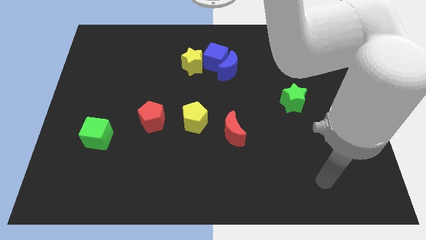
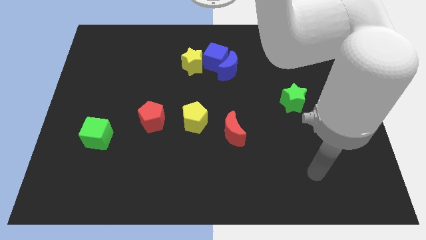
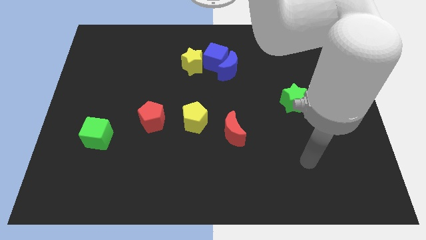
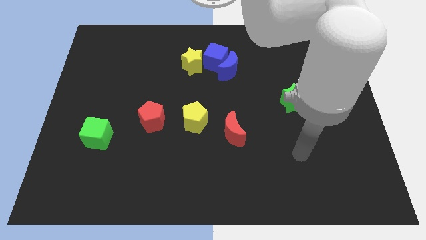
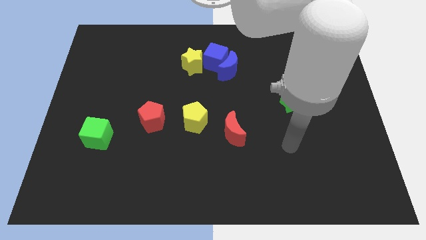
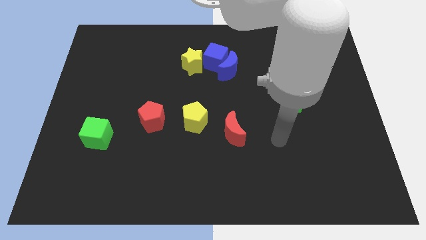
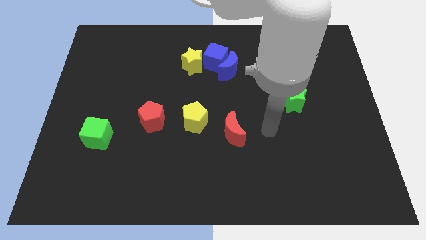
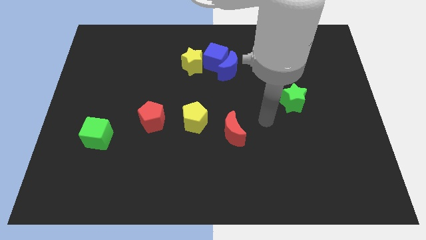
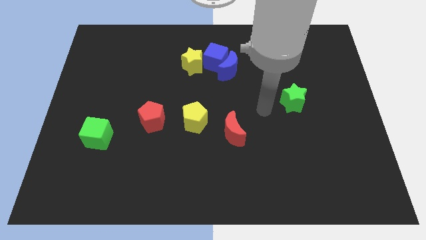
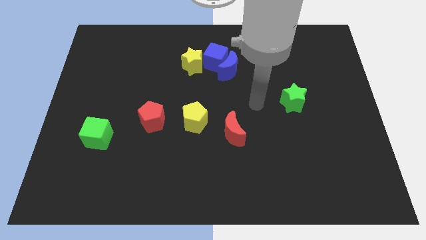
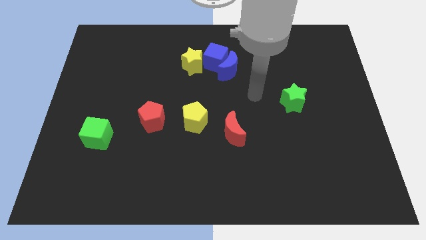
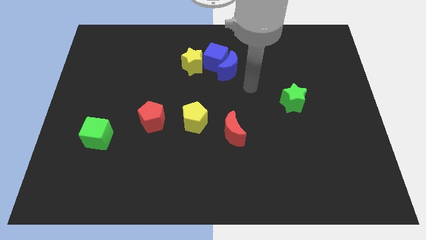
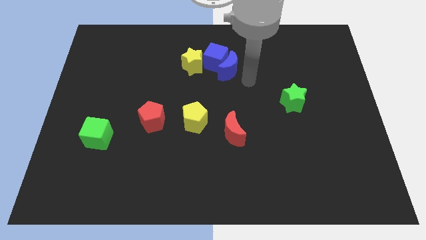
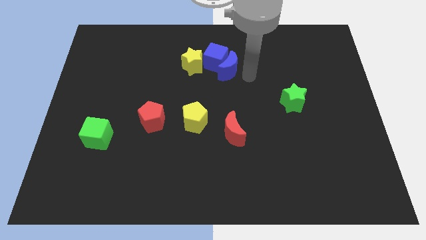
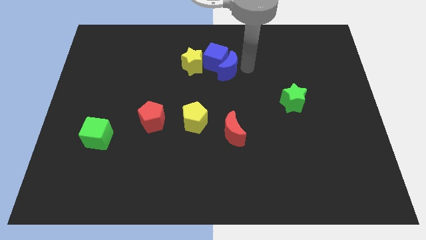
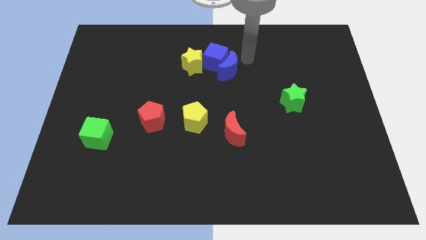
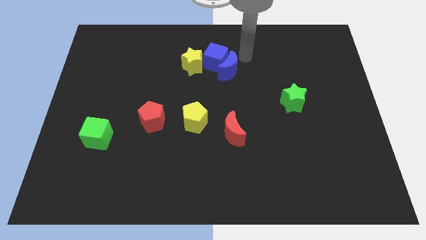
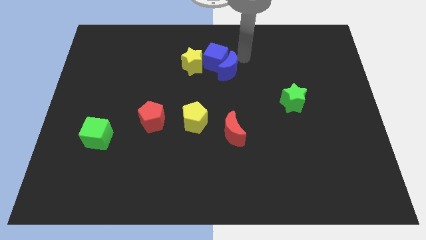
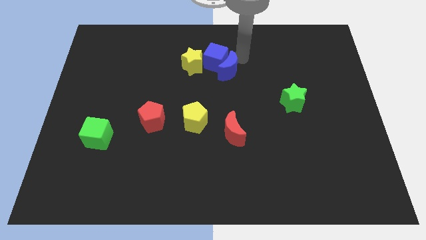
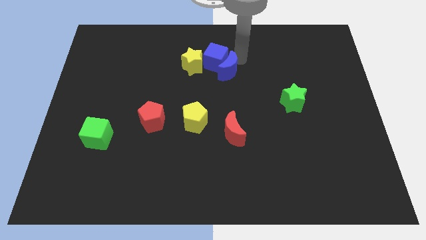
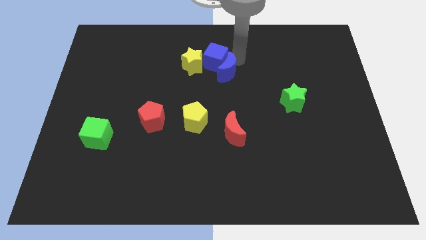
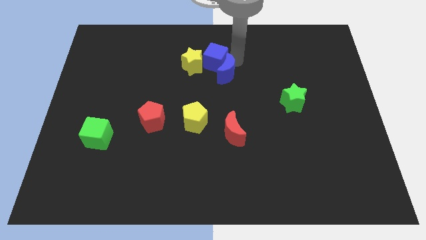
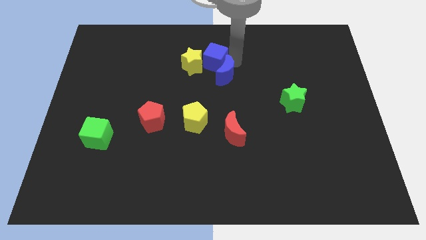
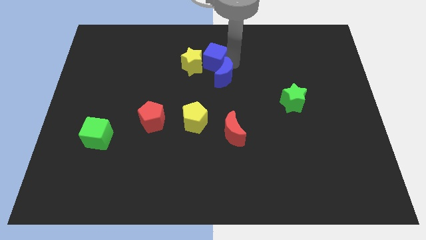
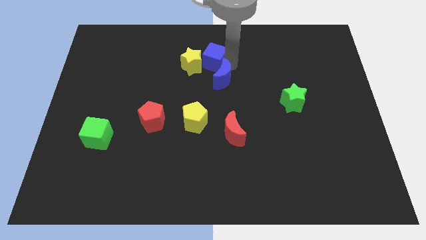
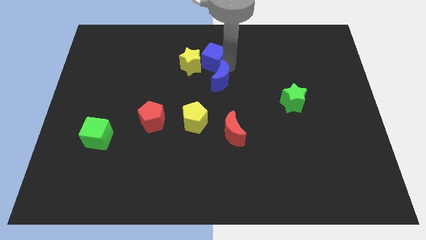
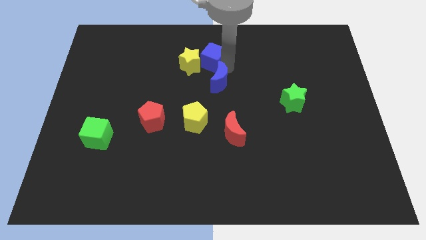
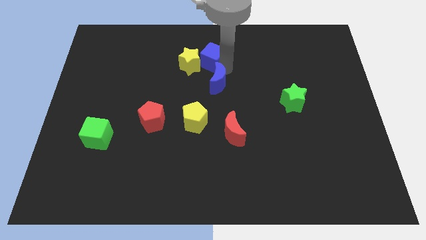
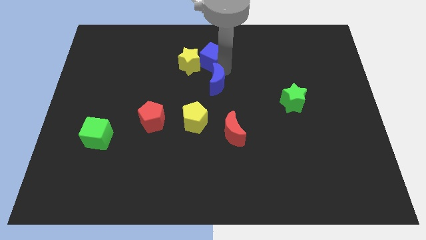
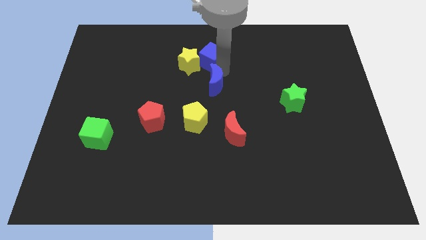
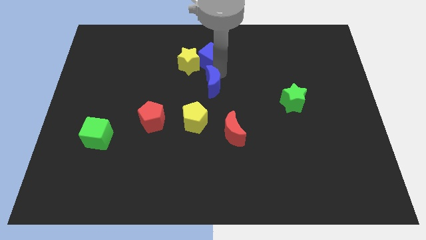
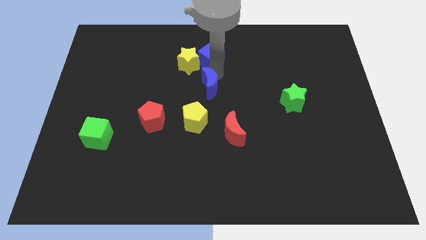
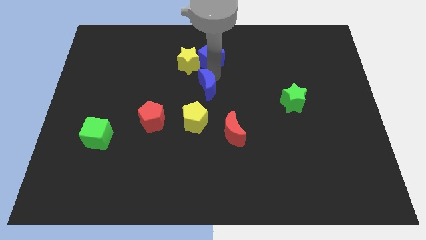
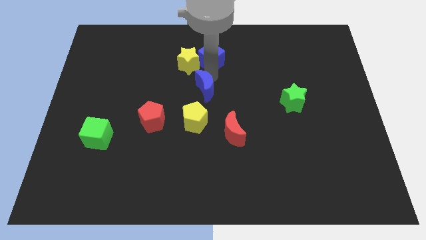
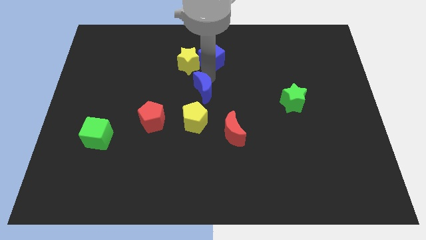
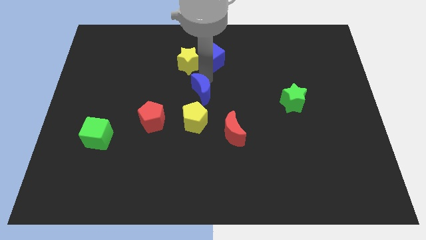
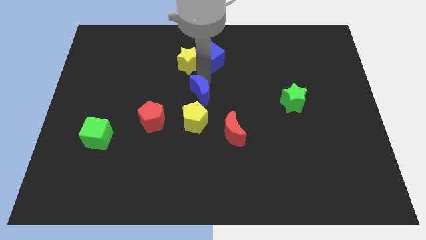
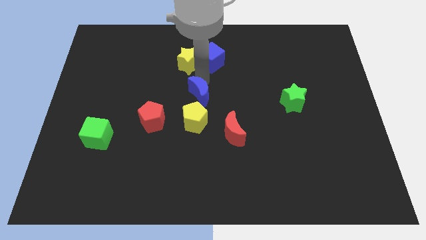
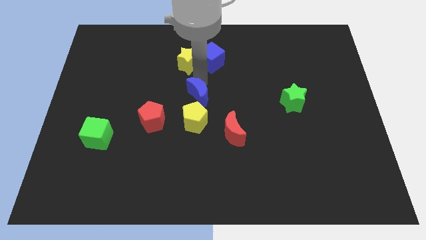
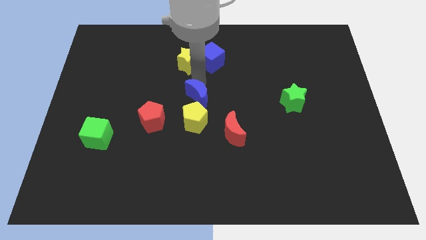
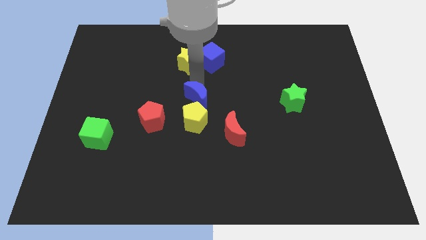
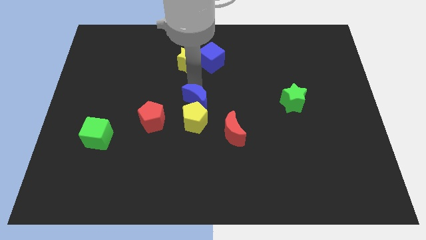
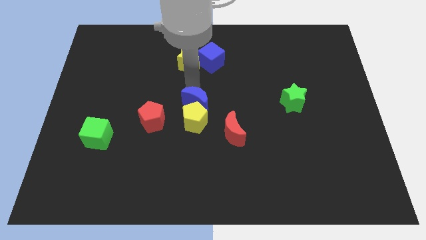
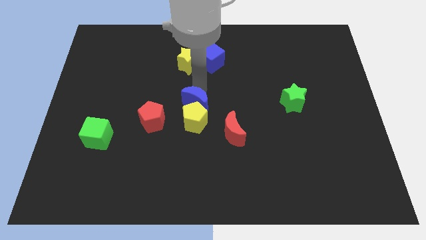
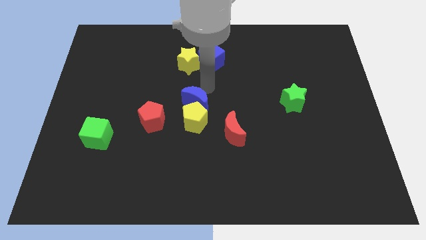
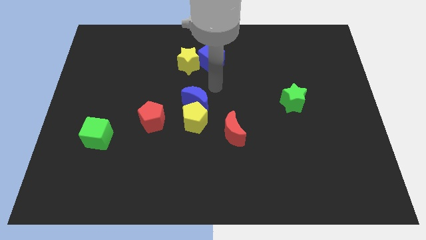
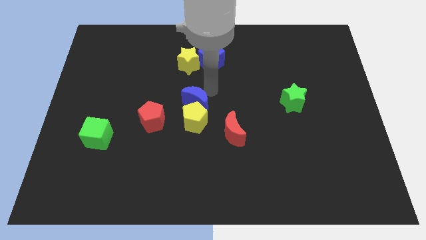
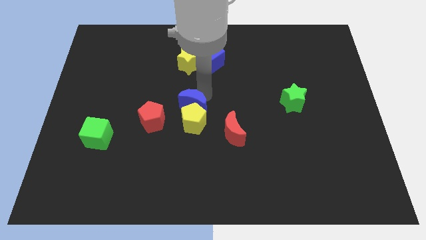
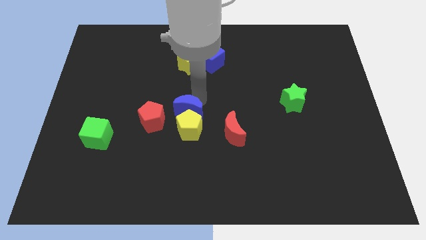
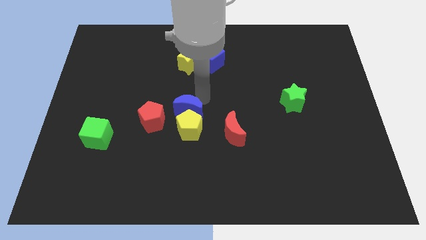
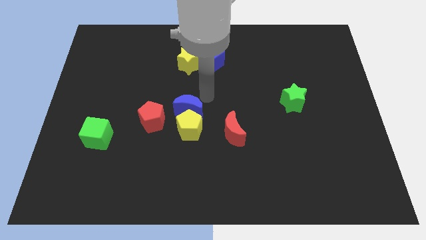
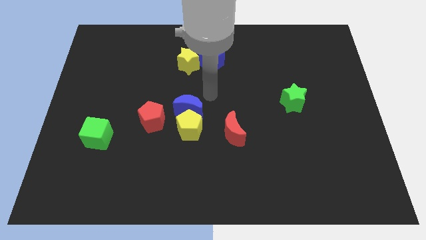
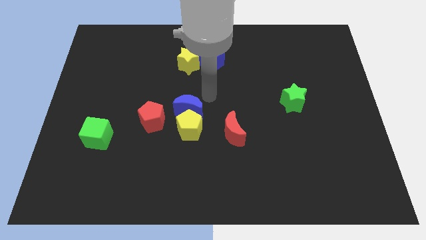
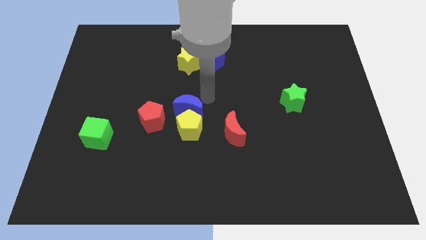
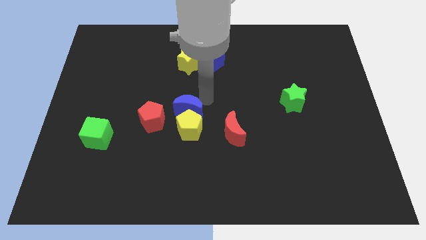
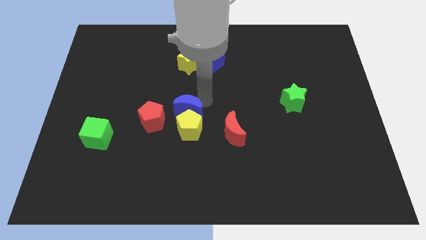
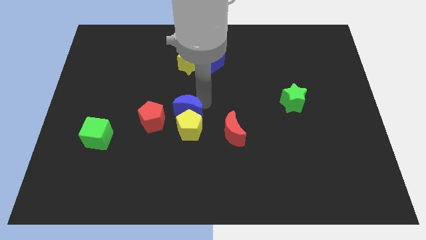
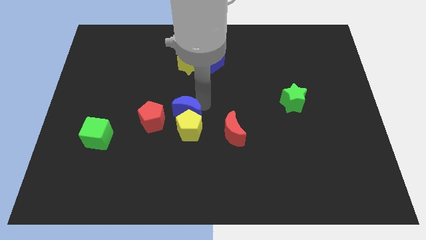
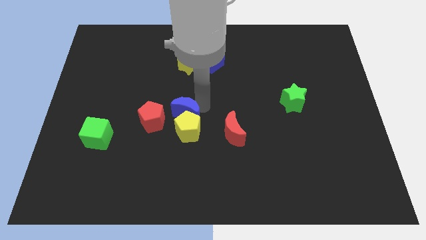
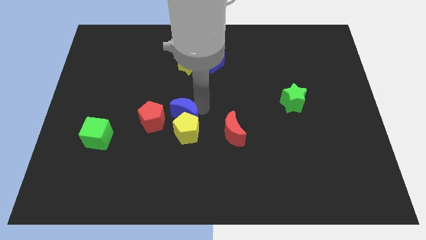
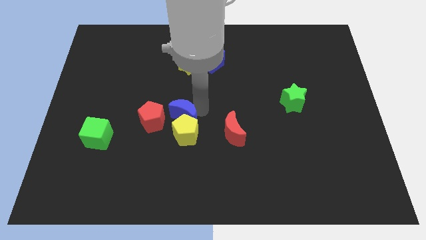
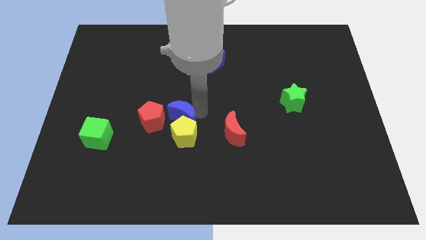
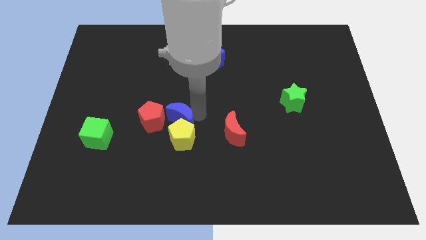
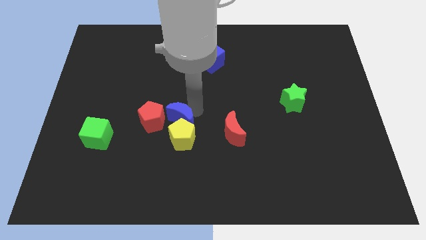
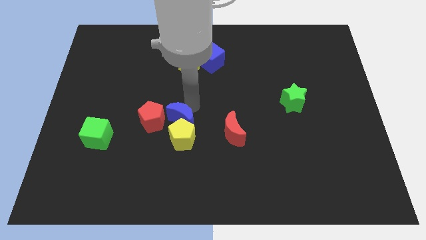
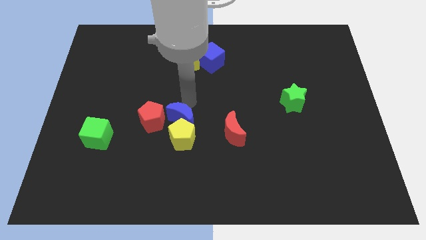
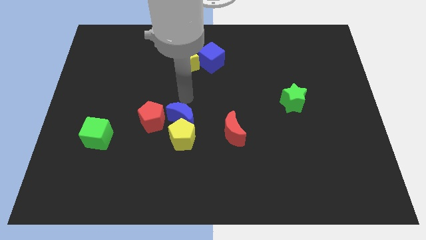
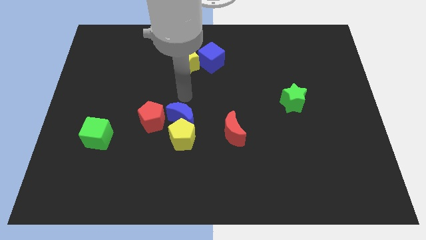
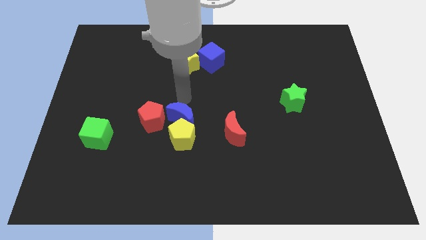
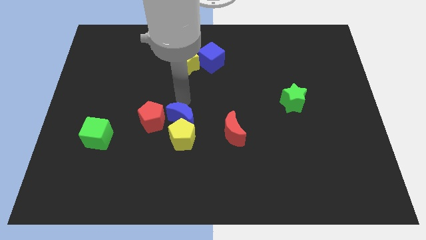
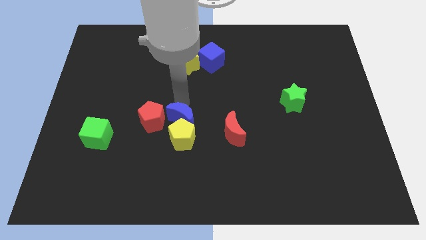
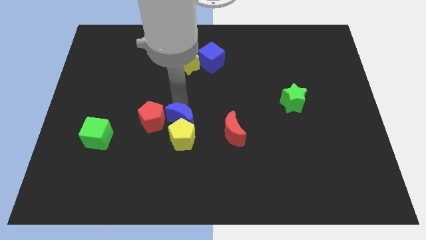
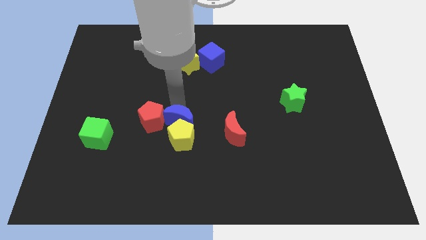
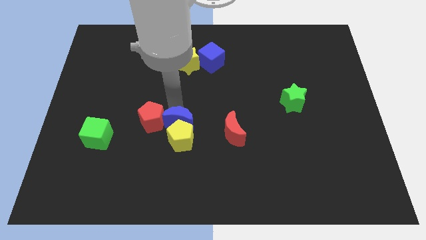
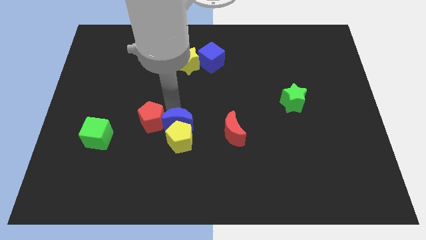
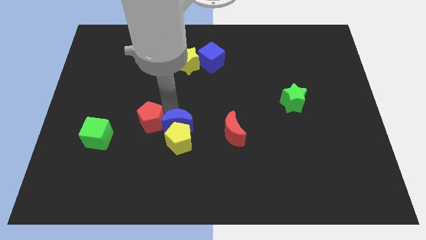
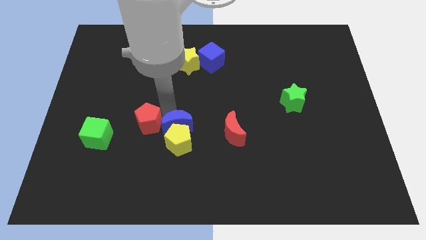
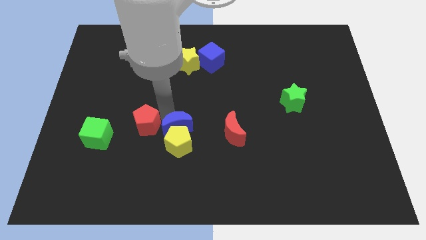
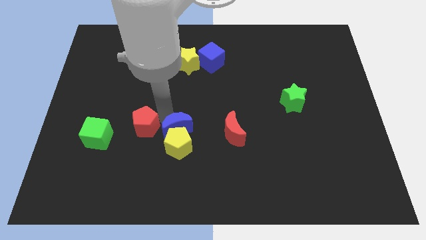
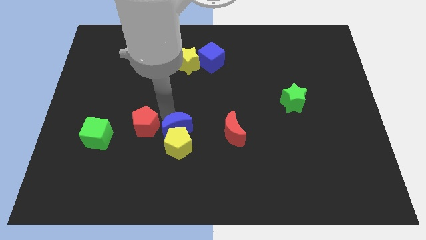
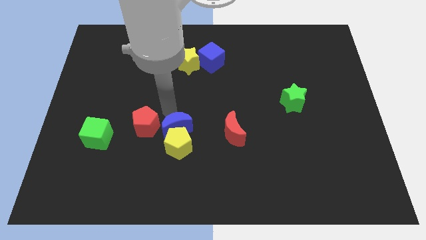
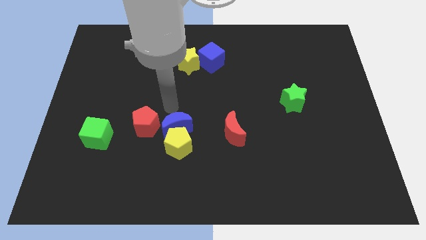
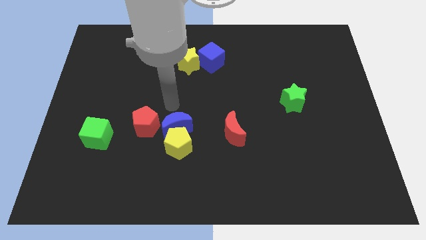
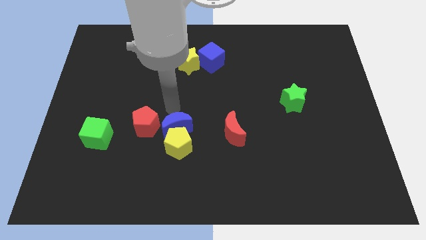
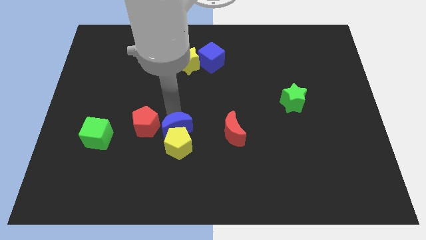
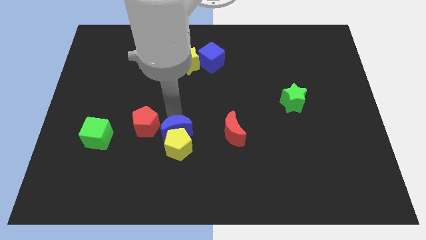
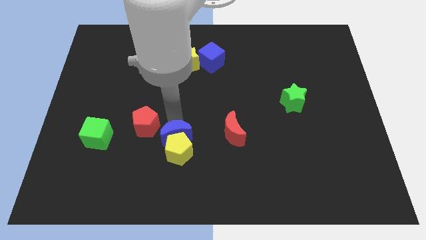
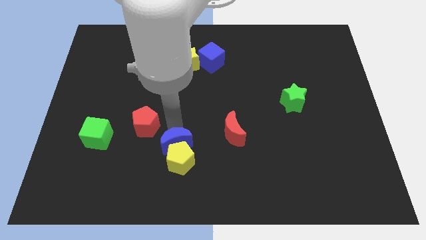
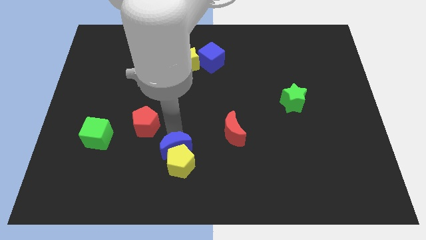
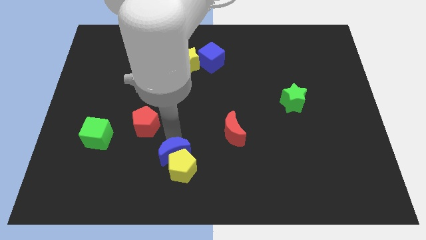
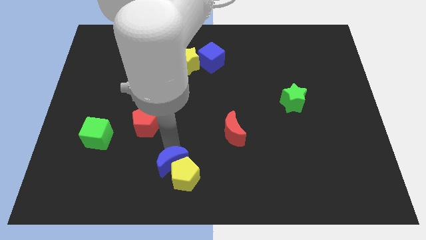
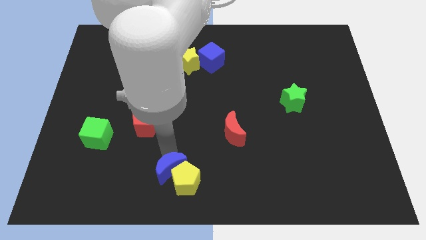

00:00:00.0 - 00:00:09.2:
push the blue moon to the bottom side
